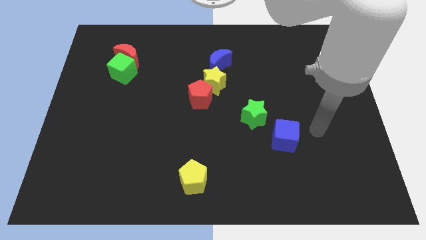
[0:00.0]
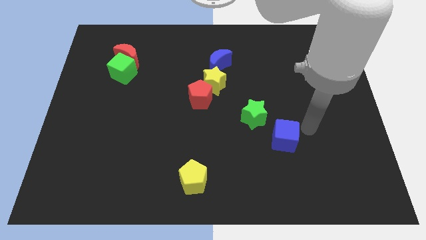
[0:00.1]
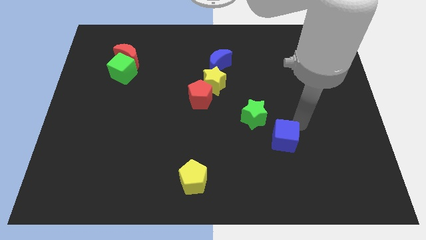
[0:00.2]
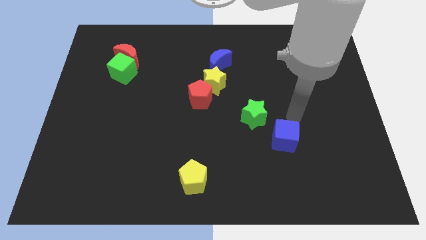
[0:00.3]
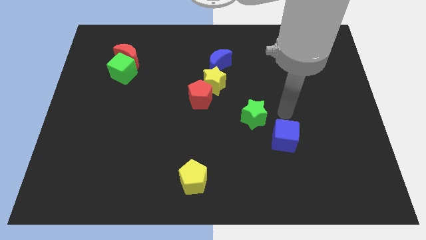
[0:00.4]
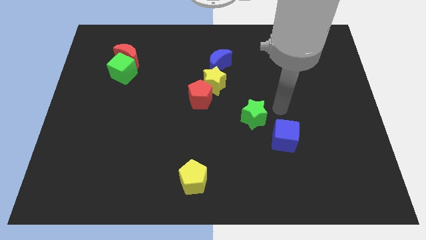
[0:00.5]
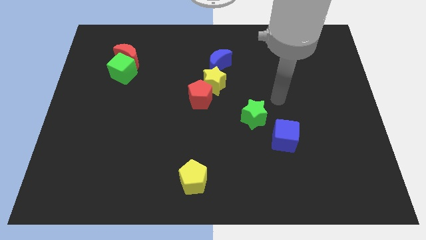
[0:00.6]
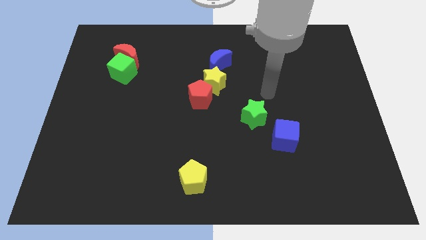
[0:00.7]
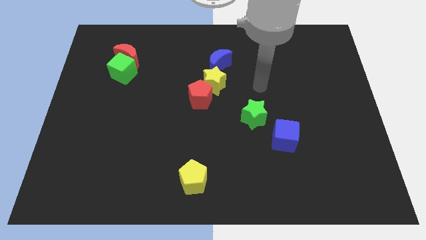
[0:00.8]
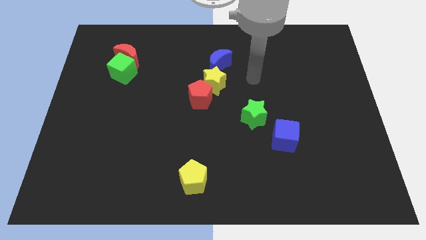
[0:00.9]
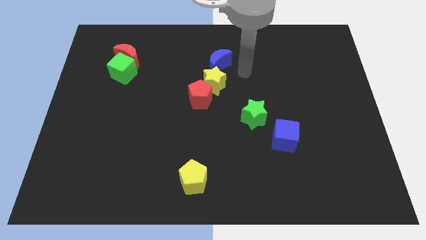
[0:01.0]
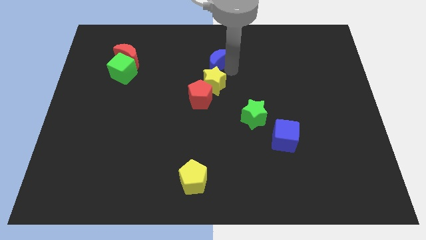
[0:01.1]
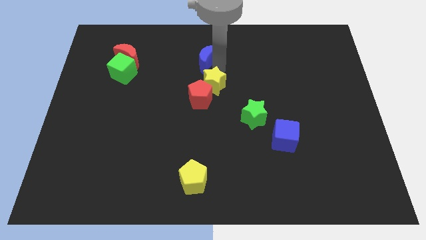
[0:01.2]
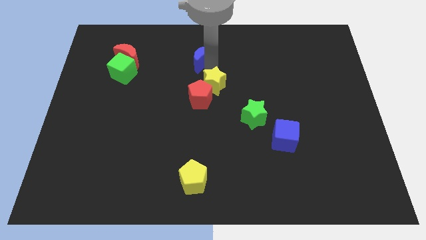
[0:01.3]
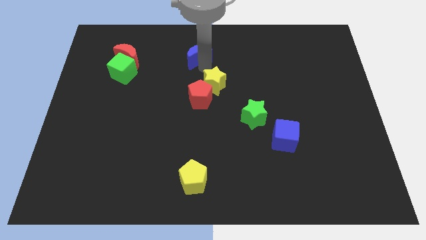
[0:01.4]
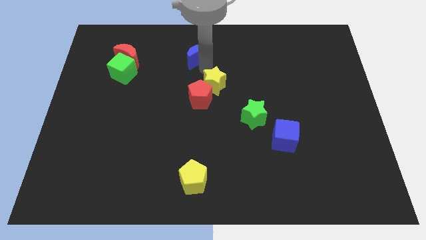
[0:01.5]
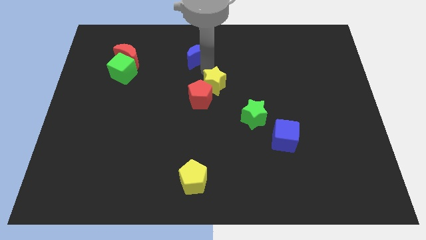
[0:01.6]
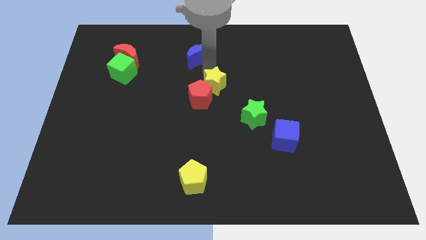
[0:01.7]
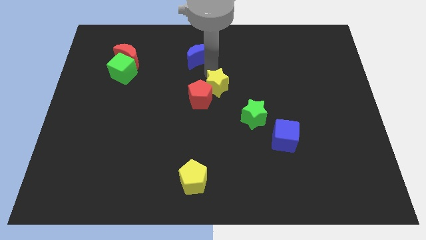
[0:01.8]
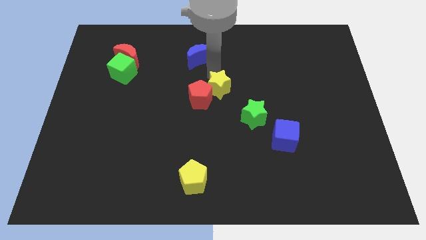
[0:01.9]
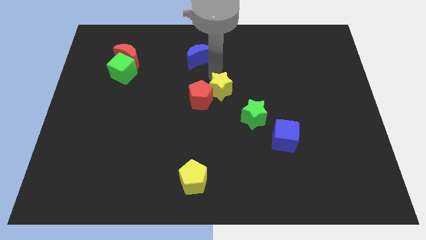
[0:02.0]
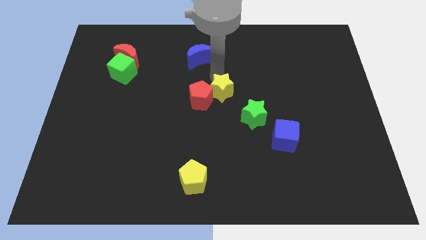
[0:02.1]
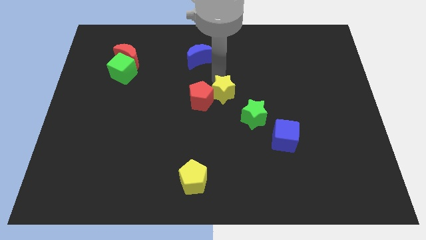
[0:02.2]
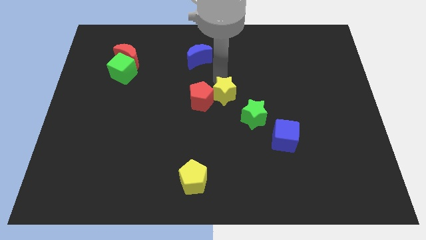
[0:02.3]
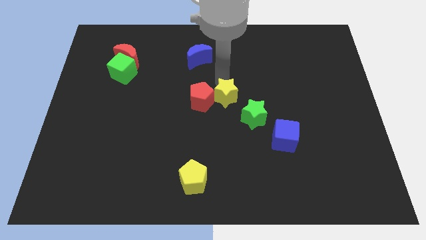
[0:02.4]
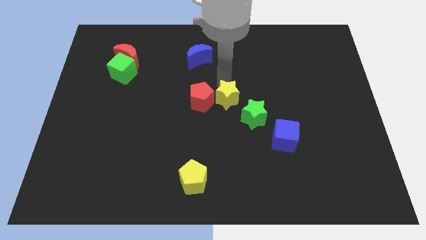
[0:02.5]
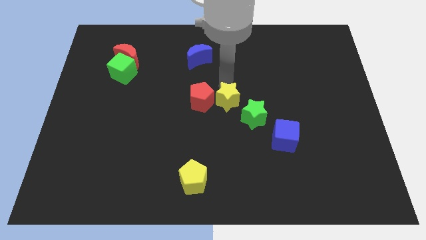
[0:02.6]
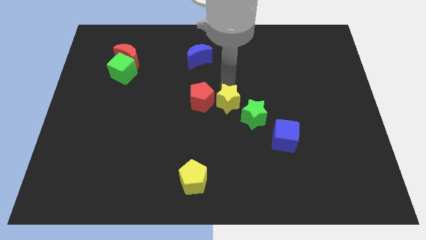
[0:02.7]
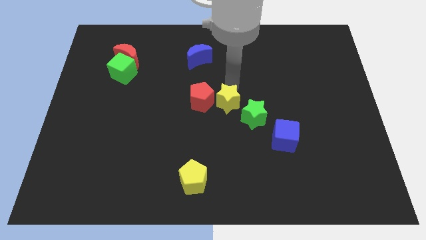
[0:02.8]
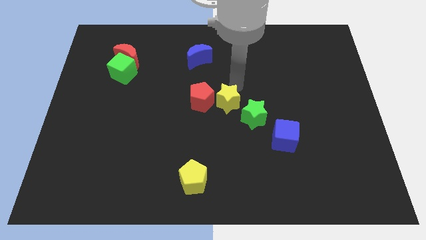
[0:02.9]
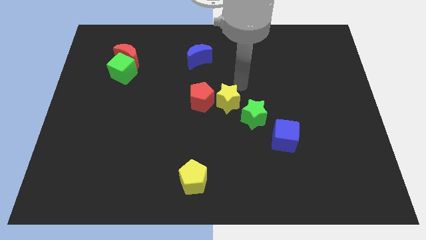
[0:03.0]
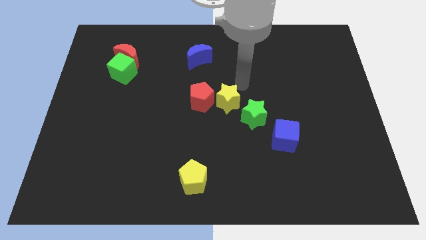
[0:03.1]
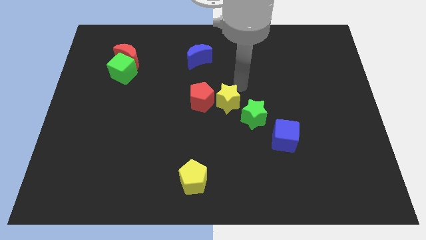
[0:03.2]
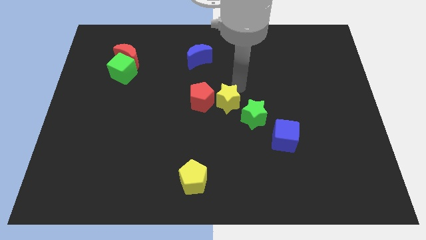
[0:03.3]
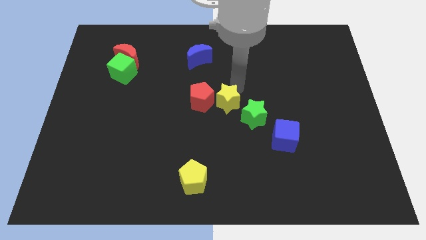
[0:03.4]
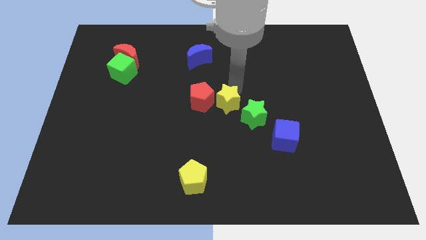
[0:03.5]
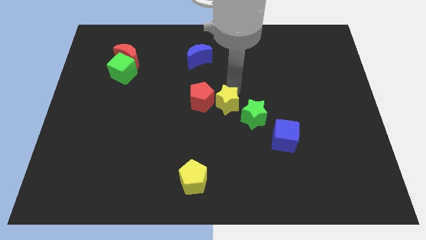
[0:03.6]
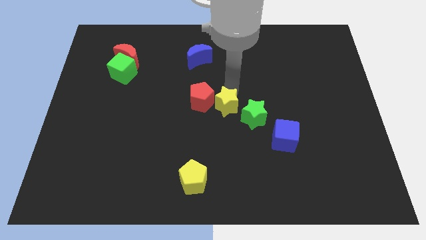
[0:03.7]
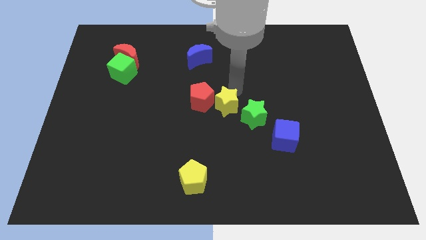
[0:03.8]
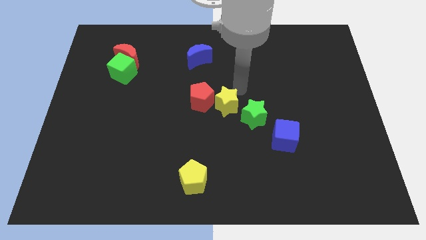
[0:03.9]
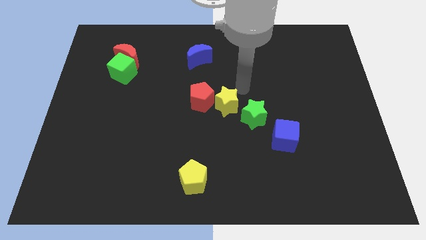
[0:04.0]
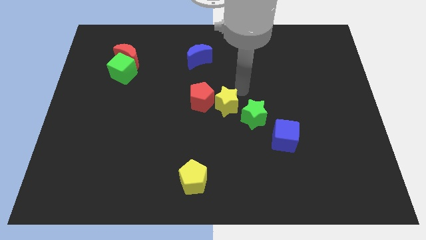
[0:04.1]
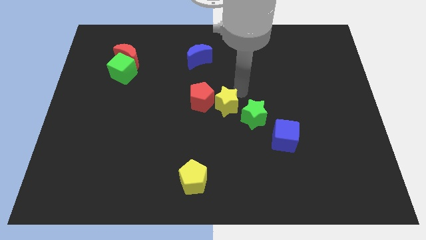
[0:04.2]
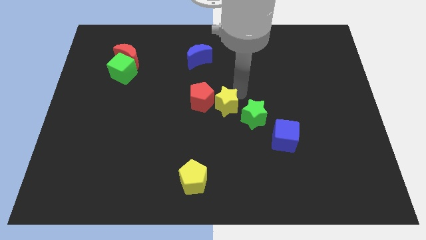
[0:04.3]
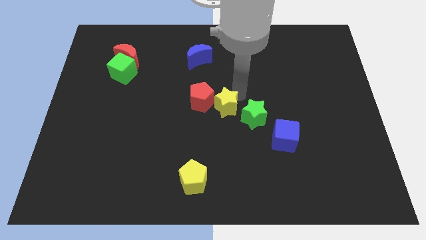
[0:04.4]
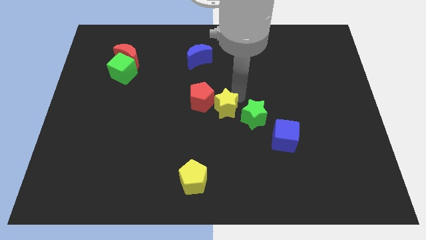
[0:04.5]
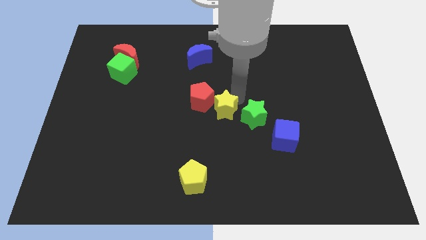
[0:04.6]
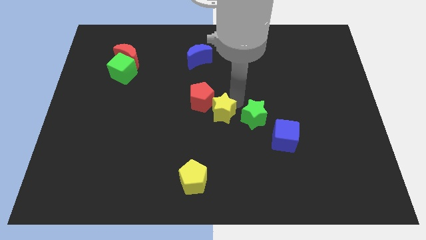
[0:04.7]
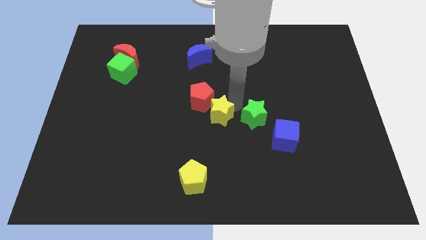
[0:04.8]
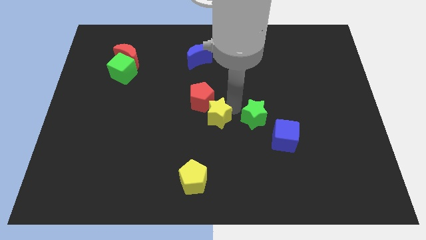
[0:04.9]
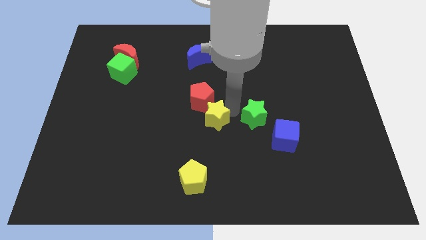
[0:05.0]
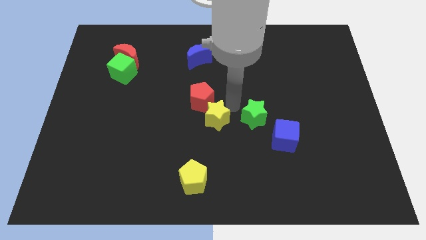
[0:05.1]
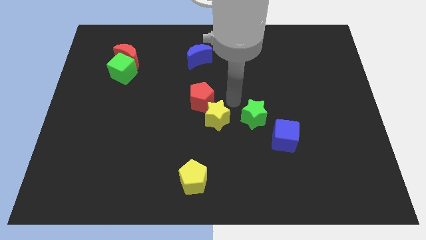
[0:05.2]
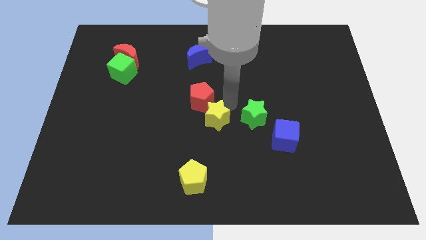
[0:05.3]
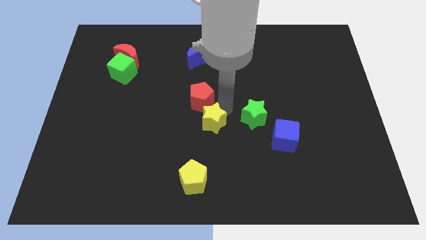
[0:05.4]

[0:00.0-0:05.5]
put the yellow star to the top side of the yellow pentagon

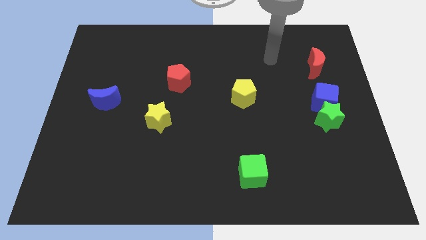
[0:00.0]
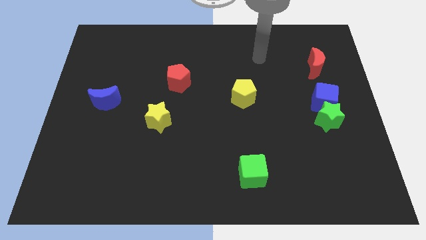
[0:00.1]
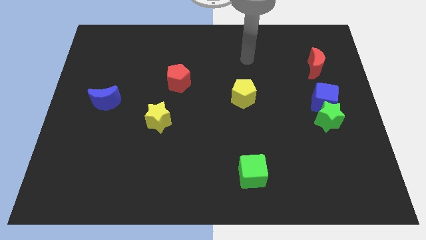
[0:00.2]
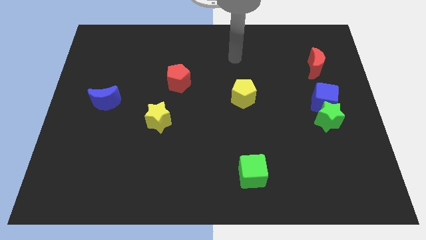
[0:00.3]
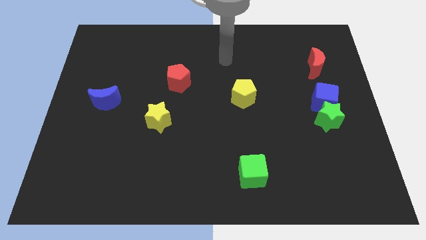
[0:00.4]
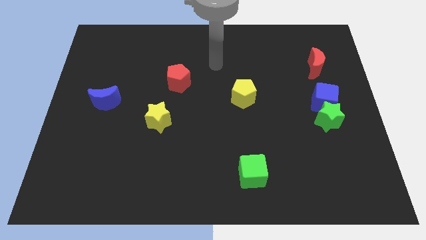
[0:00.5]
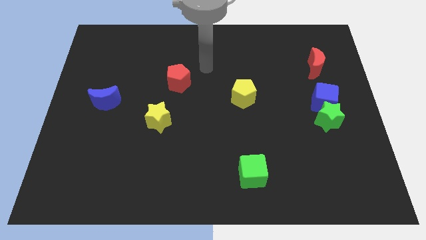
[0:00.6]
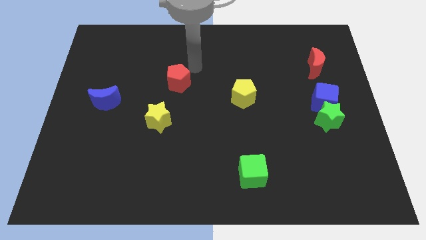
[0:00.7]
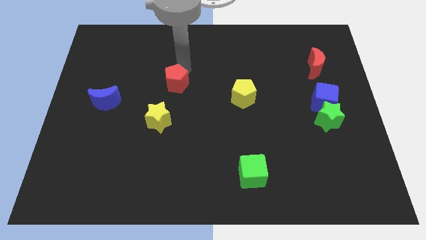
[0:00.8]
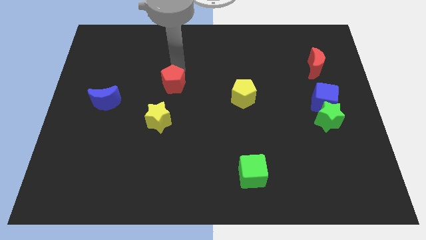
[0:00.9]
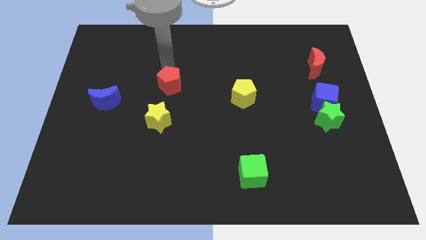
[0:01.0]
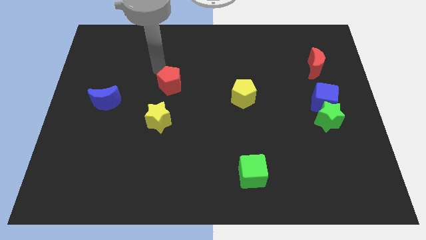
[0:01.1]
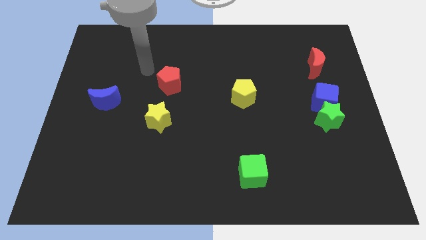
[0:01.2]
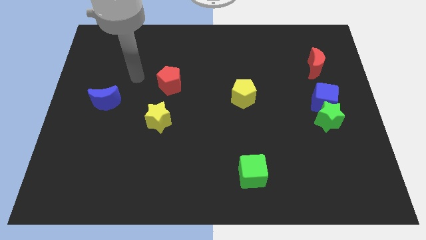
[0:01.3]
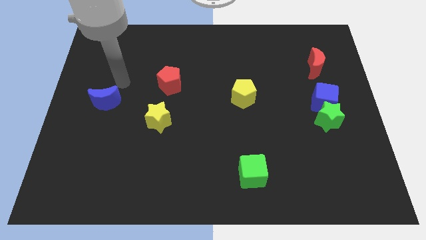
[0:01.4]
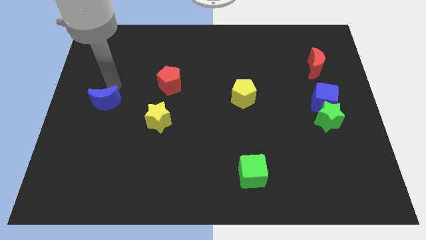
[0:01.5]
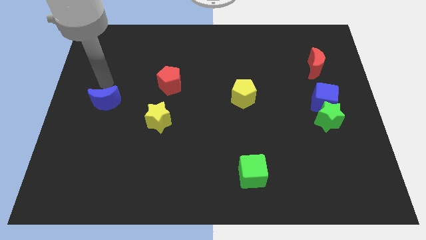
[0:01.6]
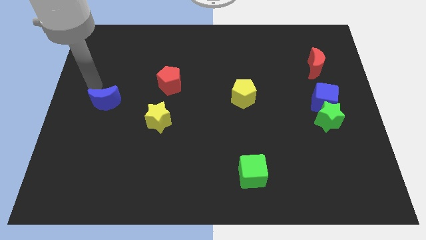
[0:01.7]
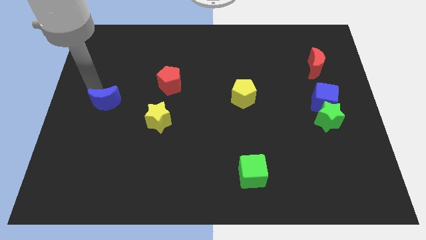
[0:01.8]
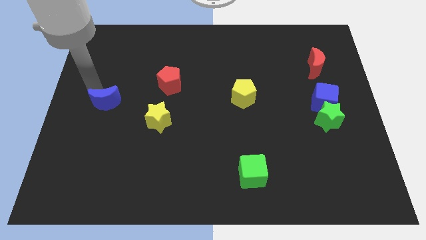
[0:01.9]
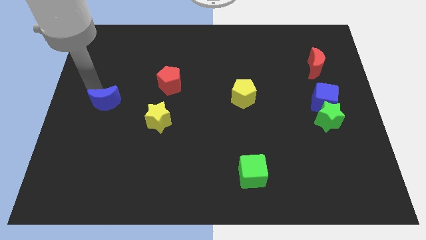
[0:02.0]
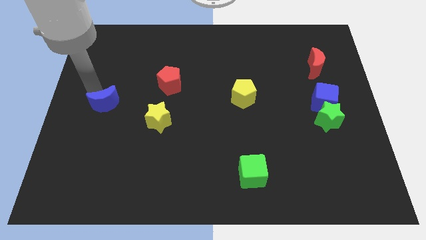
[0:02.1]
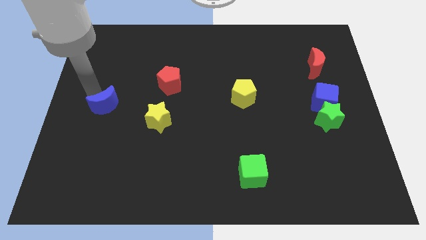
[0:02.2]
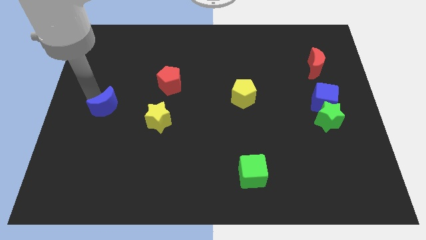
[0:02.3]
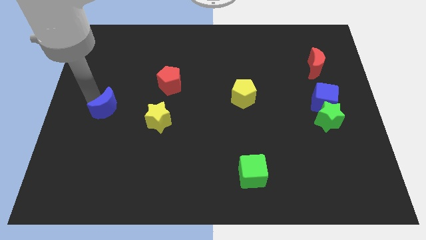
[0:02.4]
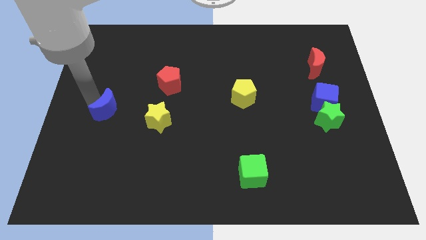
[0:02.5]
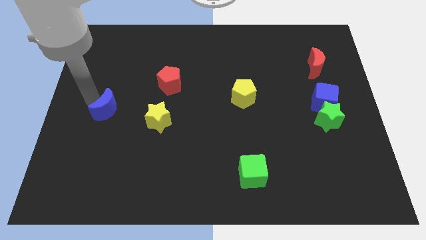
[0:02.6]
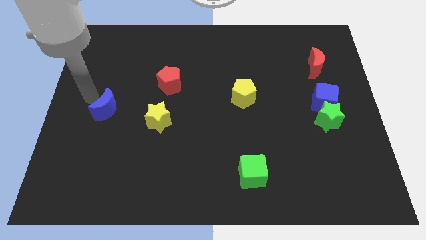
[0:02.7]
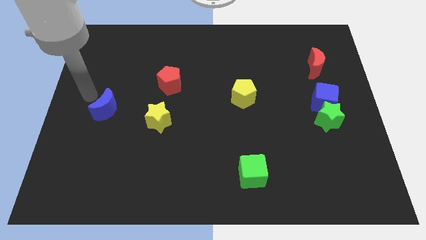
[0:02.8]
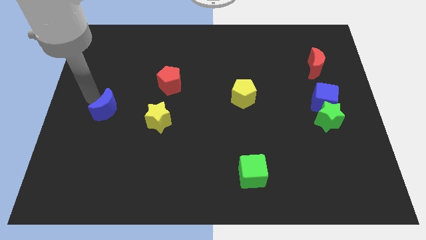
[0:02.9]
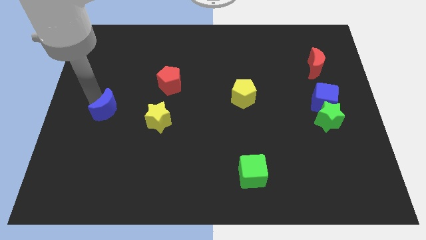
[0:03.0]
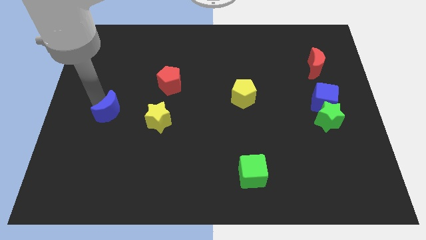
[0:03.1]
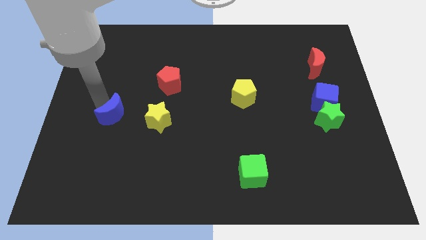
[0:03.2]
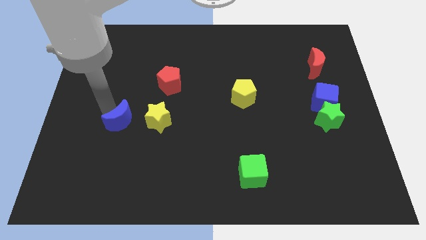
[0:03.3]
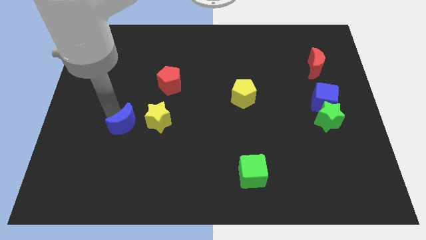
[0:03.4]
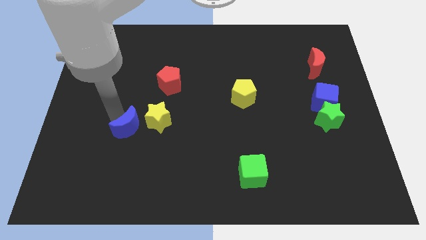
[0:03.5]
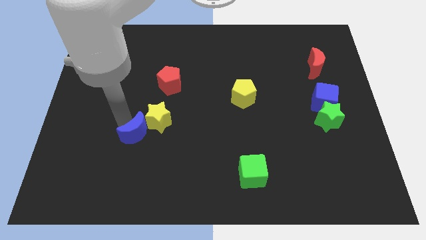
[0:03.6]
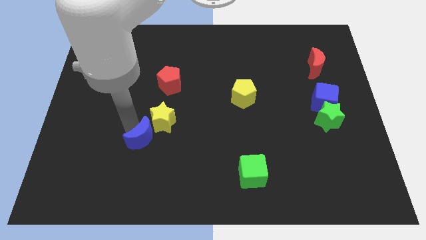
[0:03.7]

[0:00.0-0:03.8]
push the blue moon below the yellow star
